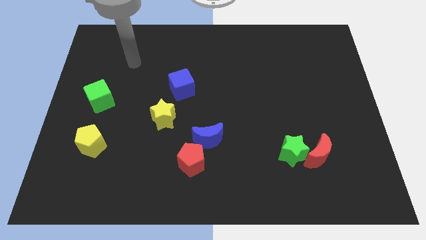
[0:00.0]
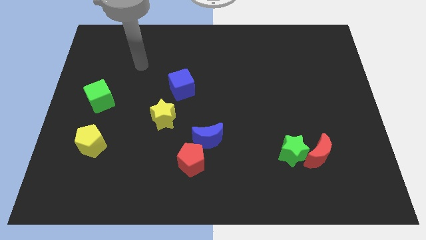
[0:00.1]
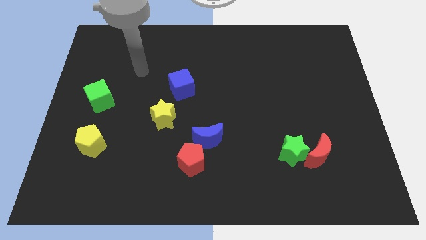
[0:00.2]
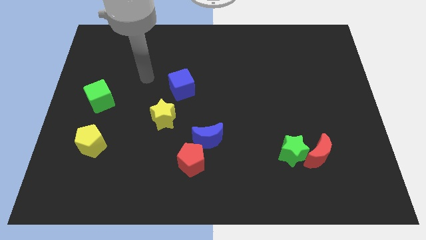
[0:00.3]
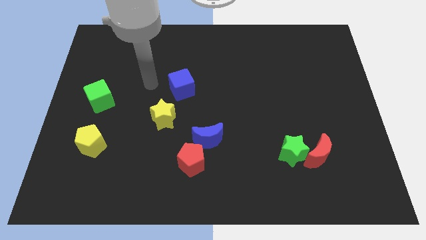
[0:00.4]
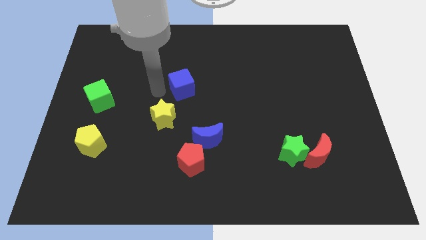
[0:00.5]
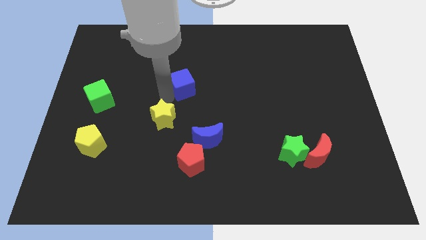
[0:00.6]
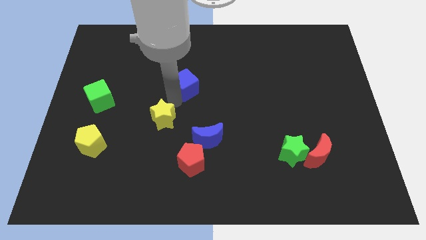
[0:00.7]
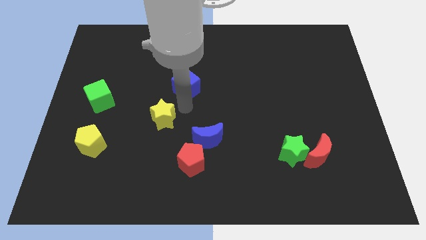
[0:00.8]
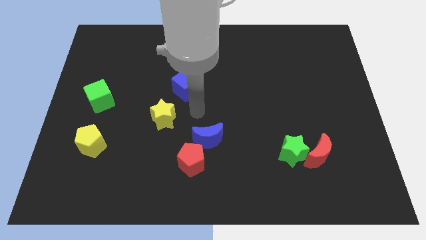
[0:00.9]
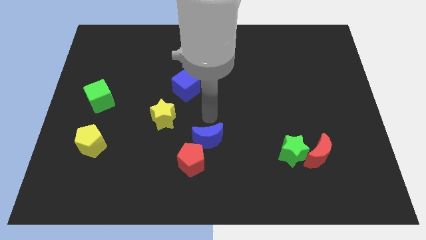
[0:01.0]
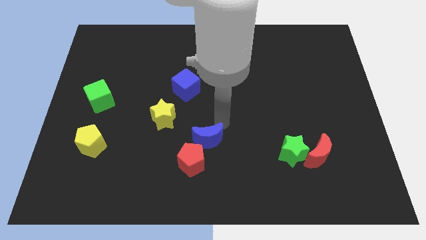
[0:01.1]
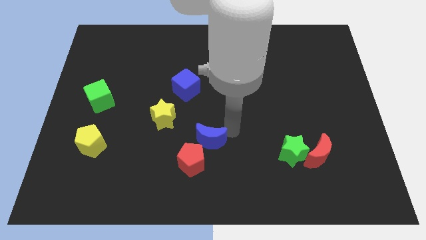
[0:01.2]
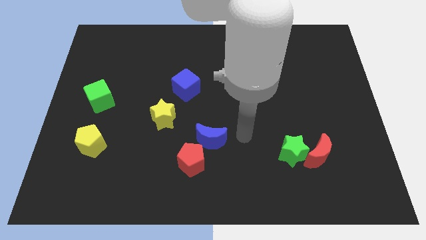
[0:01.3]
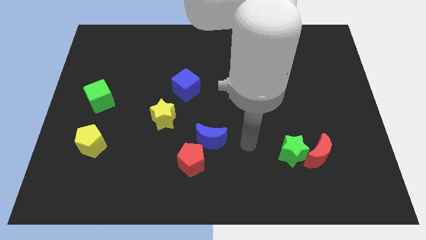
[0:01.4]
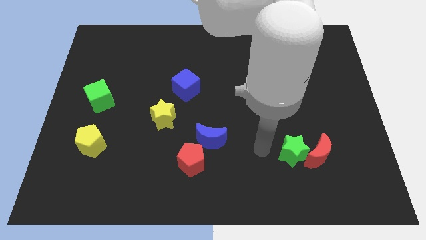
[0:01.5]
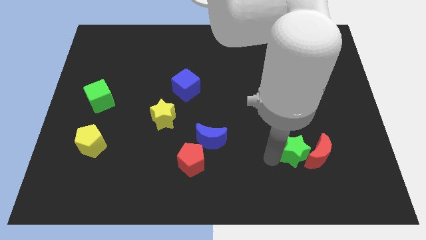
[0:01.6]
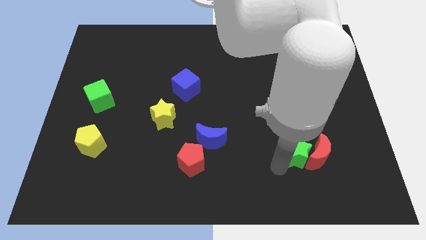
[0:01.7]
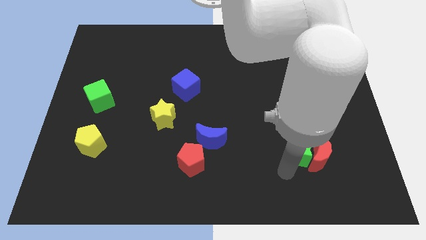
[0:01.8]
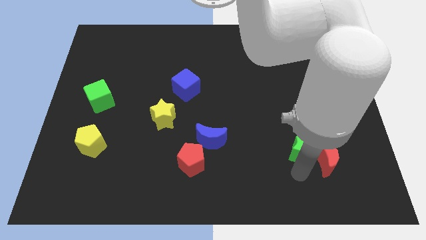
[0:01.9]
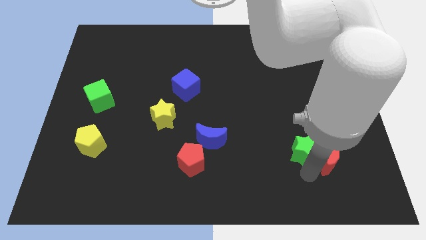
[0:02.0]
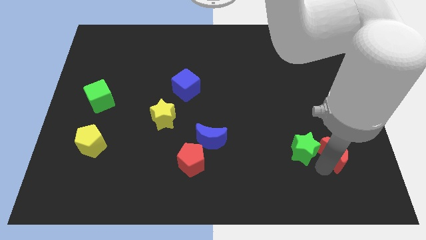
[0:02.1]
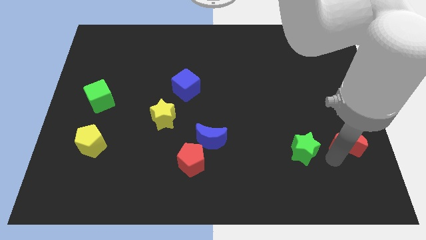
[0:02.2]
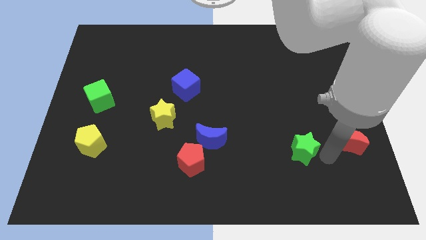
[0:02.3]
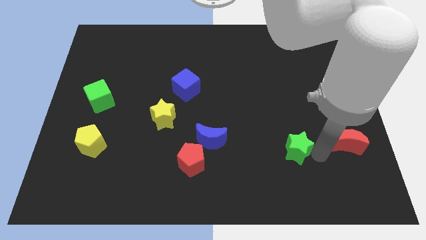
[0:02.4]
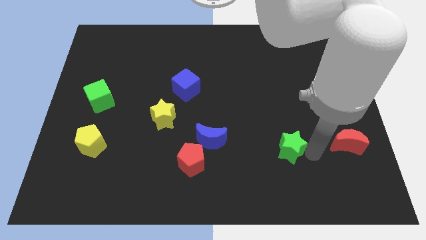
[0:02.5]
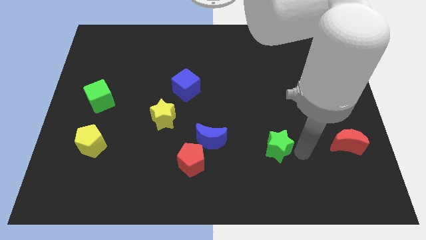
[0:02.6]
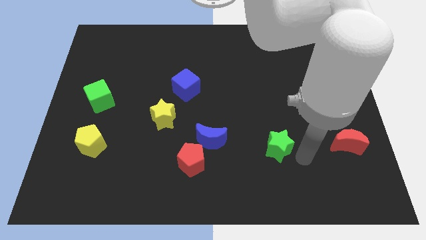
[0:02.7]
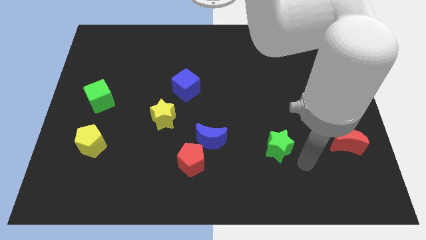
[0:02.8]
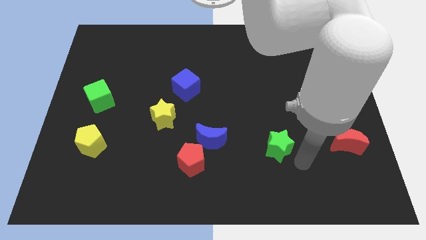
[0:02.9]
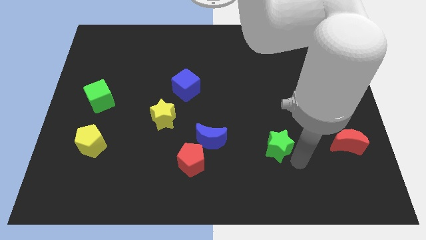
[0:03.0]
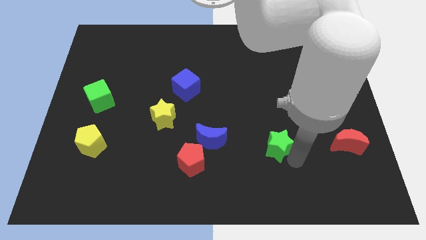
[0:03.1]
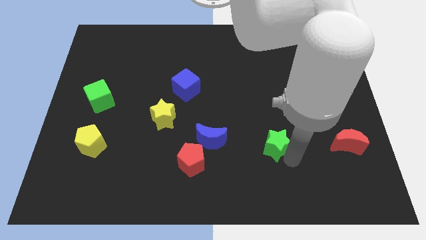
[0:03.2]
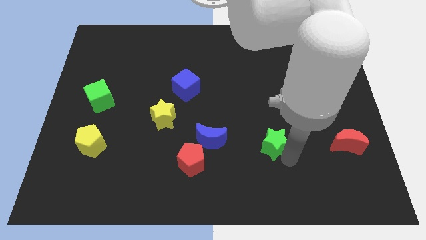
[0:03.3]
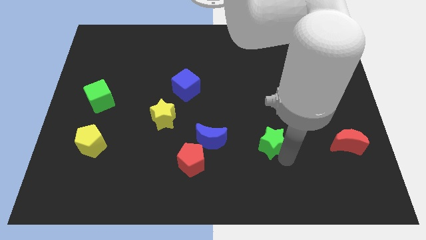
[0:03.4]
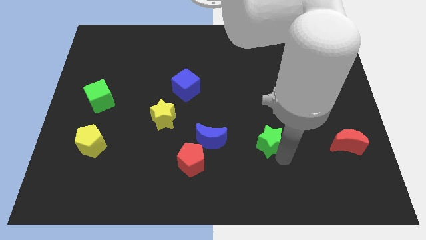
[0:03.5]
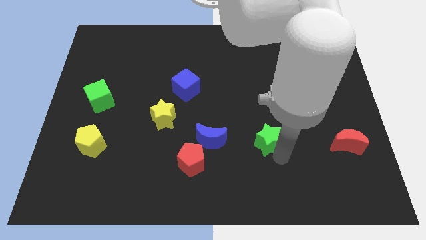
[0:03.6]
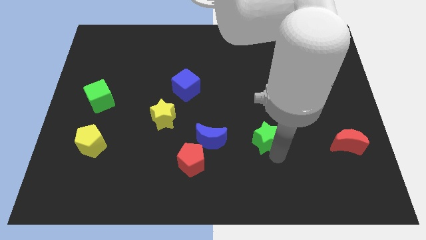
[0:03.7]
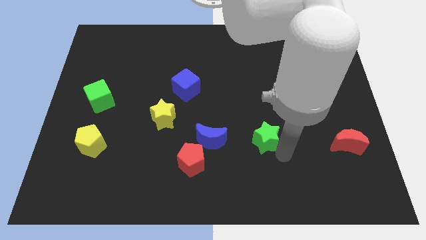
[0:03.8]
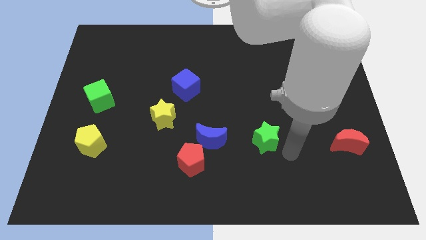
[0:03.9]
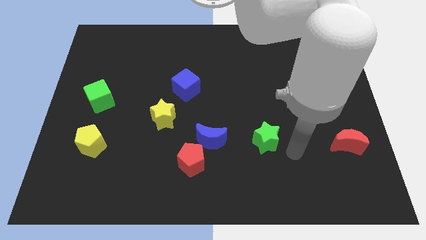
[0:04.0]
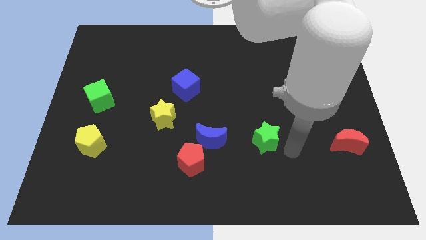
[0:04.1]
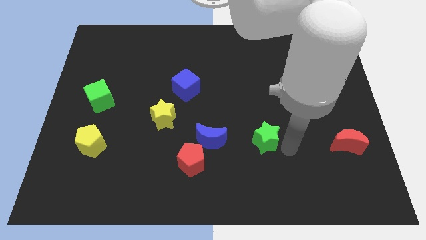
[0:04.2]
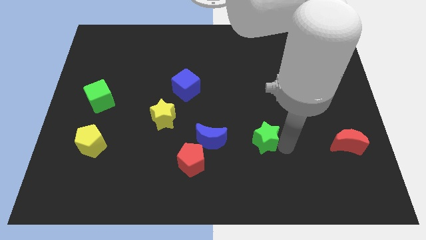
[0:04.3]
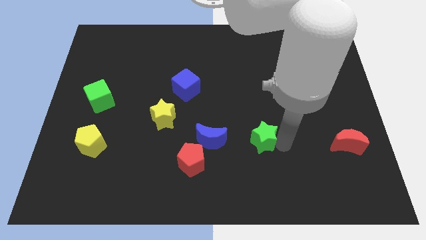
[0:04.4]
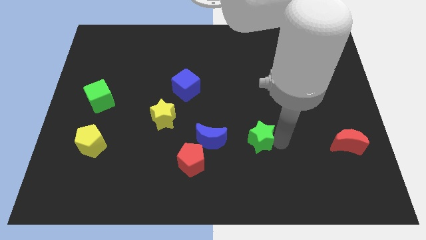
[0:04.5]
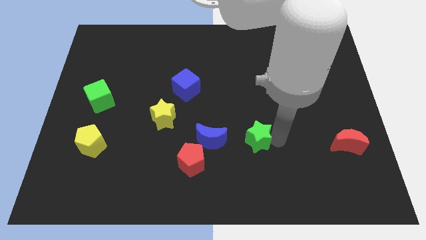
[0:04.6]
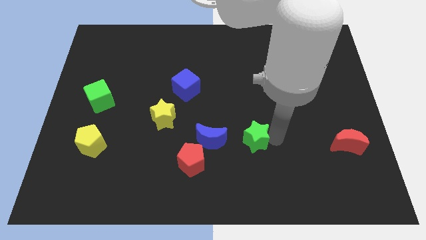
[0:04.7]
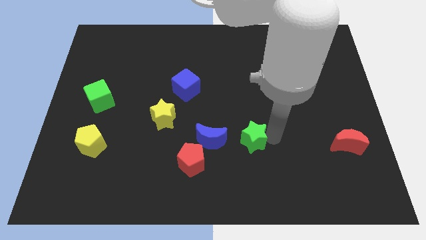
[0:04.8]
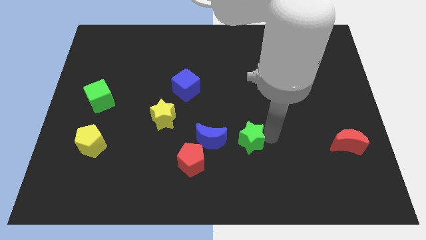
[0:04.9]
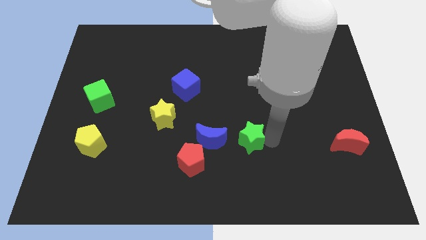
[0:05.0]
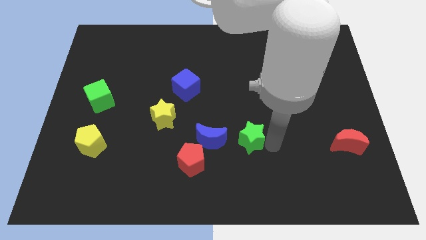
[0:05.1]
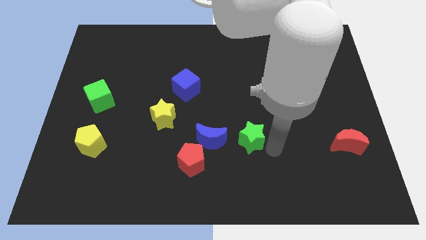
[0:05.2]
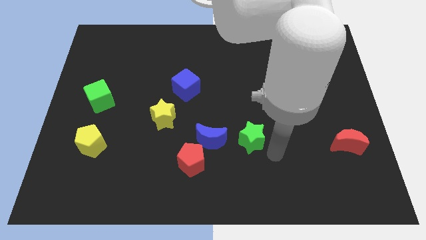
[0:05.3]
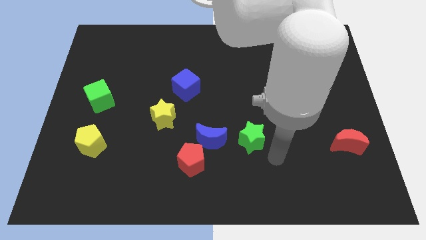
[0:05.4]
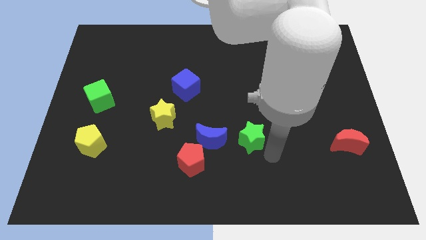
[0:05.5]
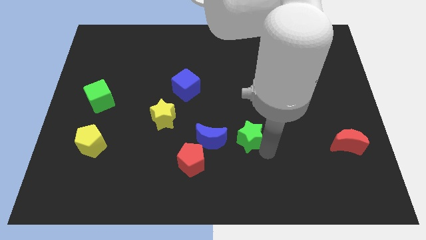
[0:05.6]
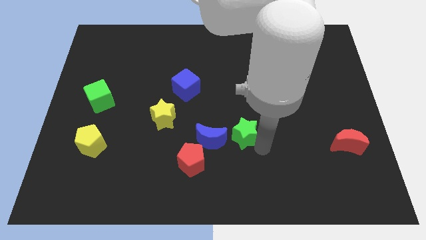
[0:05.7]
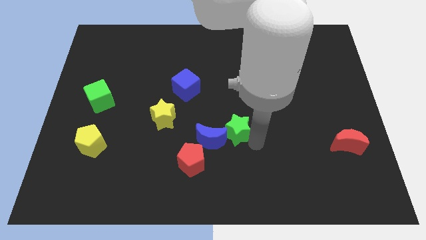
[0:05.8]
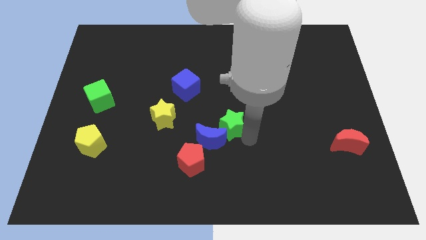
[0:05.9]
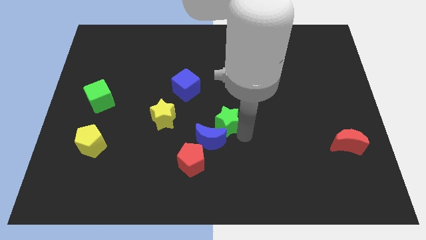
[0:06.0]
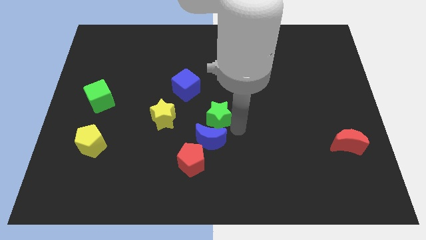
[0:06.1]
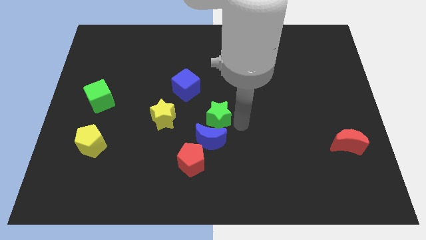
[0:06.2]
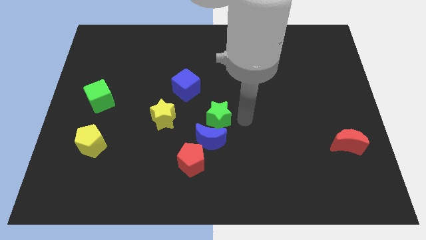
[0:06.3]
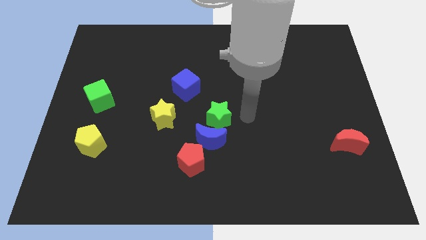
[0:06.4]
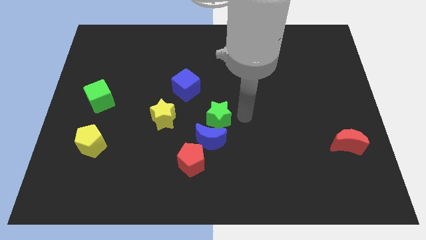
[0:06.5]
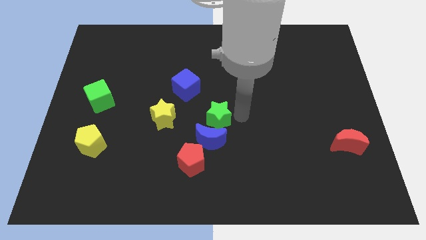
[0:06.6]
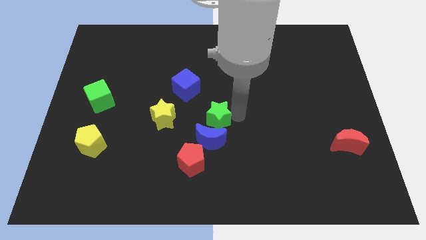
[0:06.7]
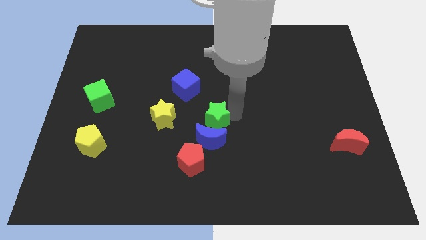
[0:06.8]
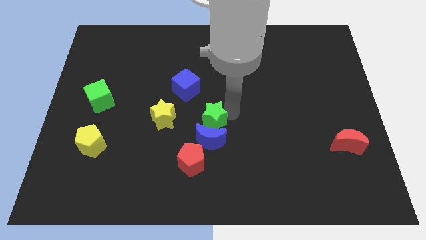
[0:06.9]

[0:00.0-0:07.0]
push the green star to the top of the red pentagon
